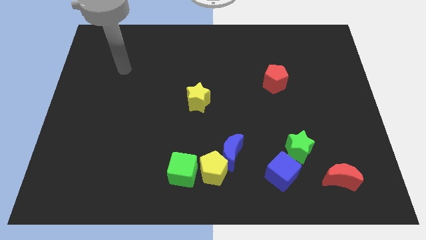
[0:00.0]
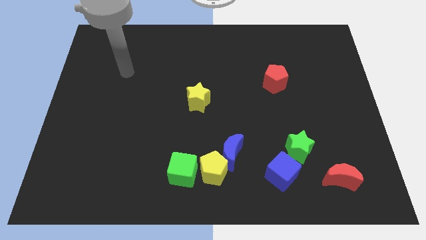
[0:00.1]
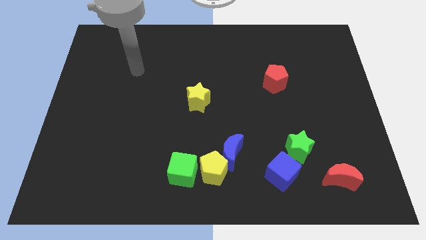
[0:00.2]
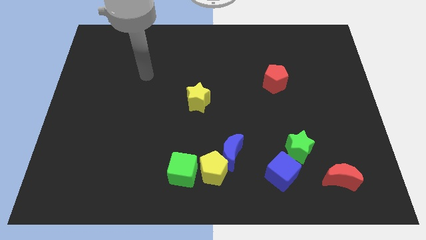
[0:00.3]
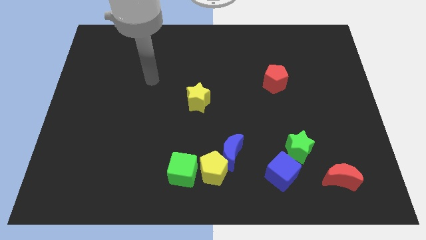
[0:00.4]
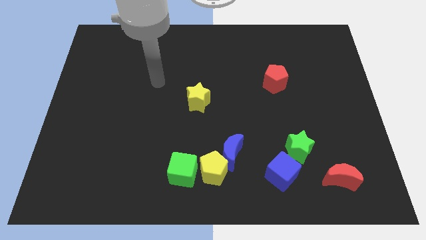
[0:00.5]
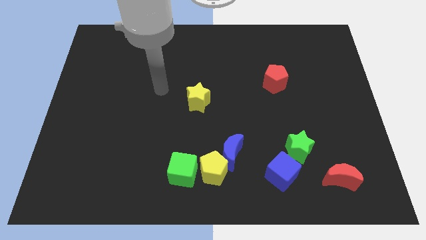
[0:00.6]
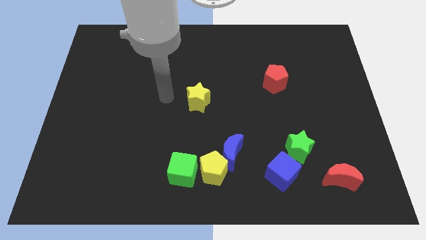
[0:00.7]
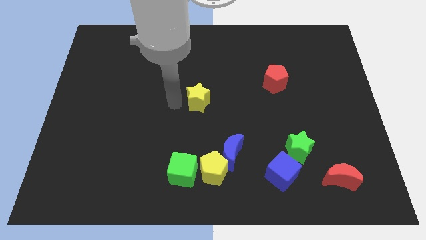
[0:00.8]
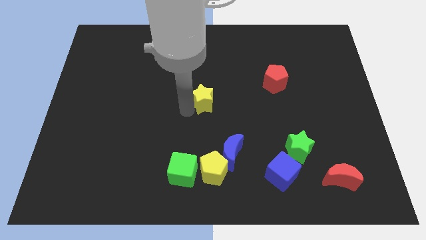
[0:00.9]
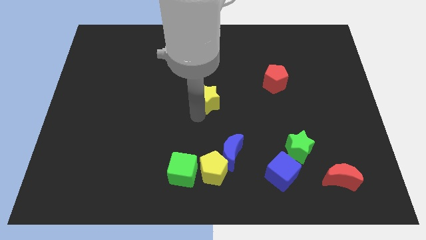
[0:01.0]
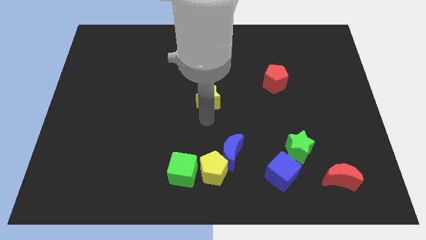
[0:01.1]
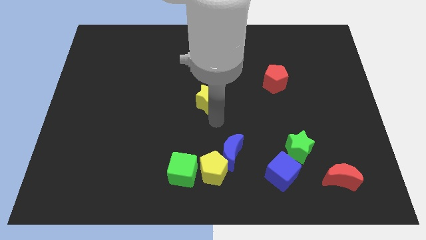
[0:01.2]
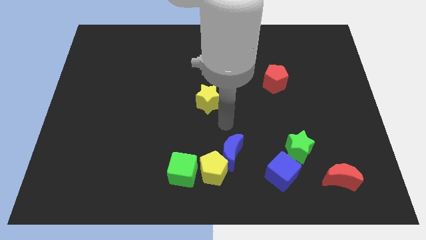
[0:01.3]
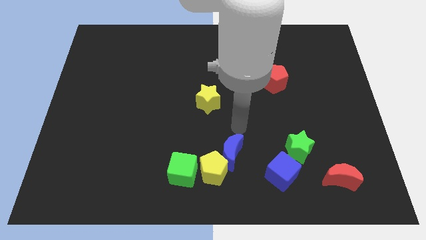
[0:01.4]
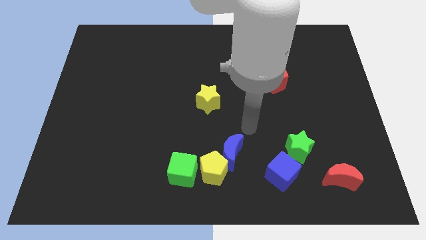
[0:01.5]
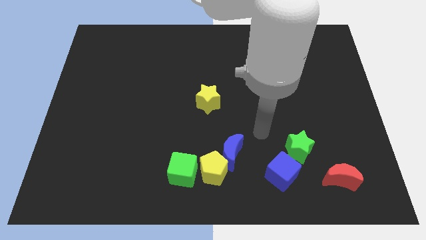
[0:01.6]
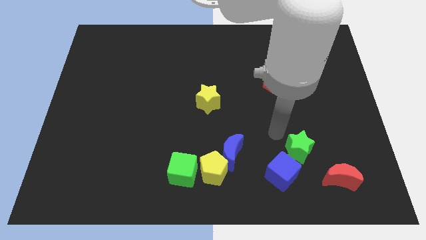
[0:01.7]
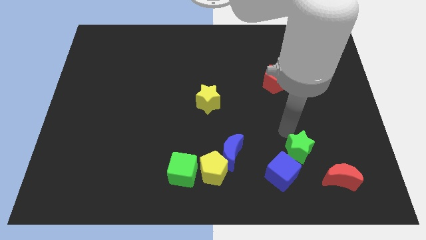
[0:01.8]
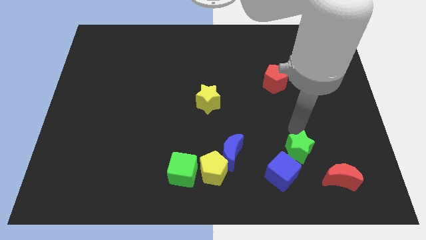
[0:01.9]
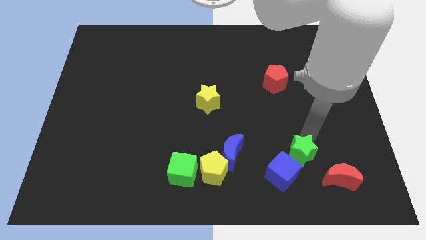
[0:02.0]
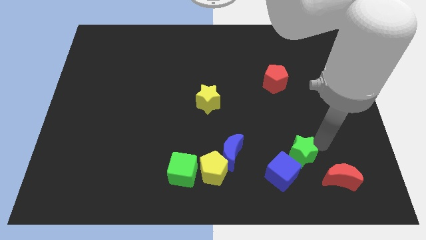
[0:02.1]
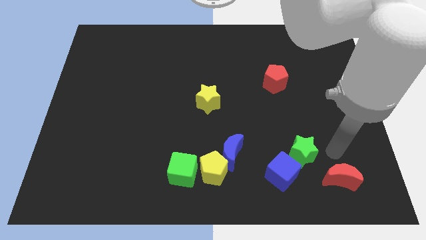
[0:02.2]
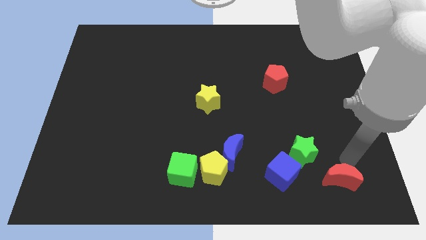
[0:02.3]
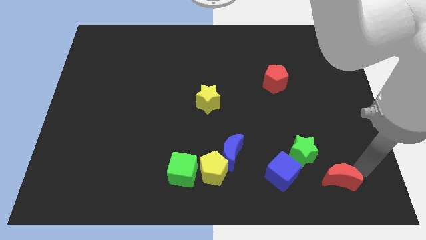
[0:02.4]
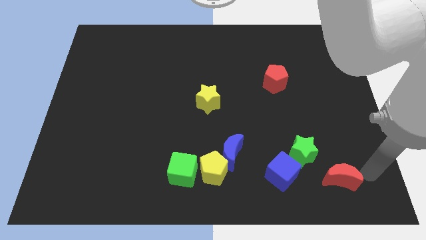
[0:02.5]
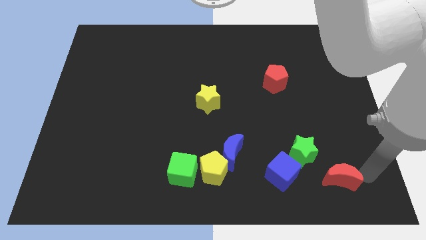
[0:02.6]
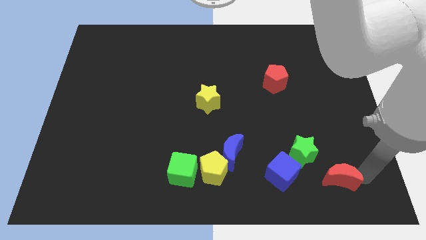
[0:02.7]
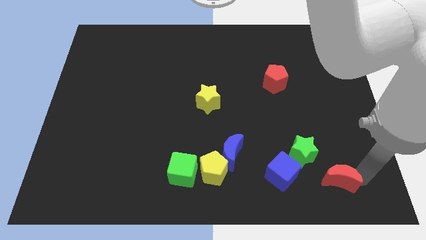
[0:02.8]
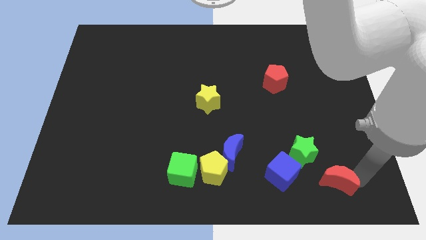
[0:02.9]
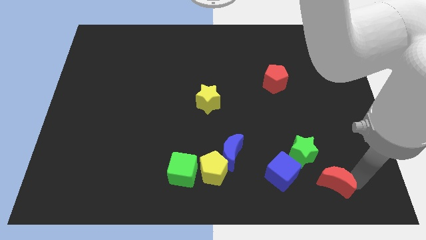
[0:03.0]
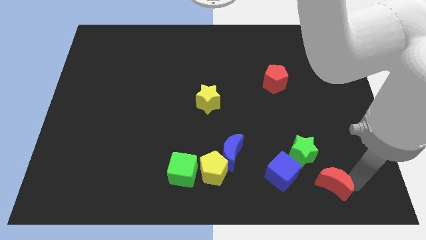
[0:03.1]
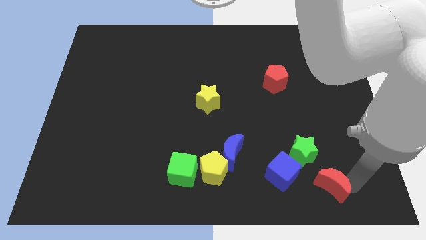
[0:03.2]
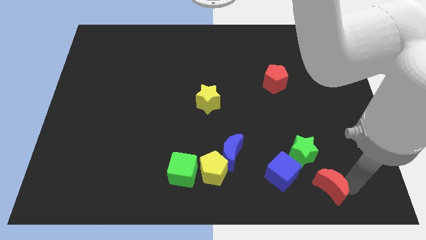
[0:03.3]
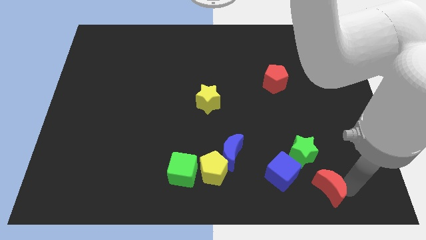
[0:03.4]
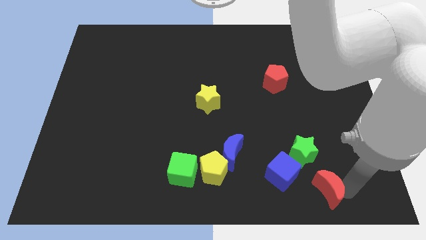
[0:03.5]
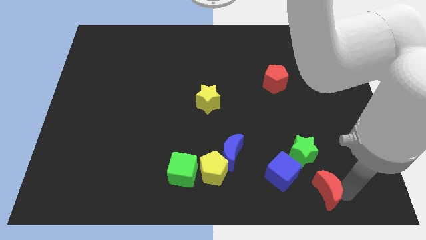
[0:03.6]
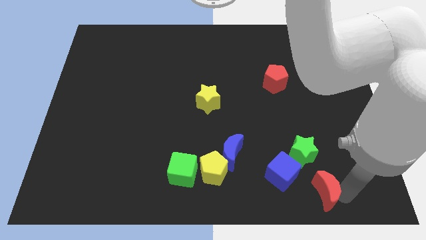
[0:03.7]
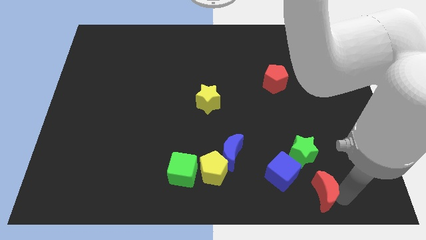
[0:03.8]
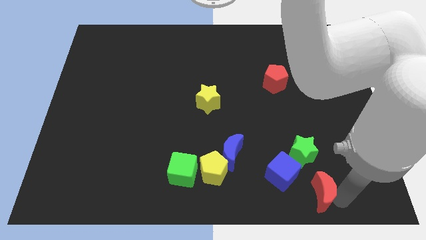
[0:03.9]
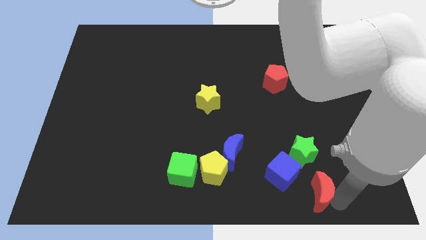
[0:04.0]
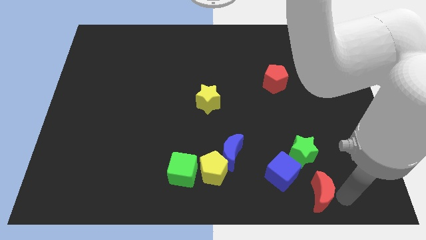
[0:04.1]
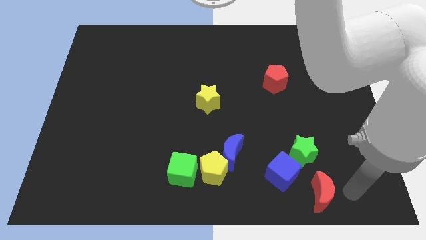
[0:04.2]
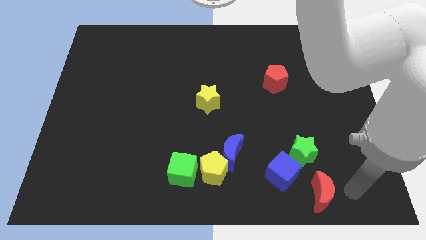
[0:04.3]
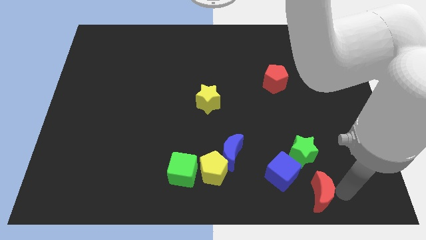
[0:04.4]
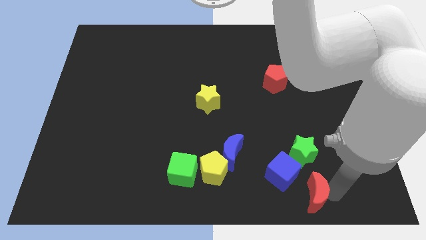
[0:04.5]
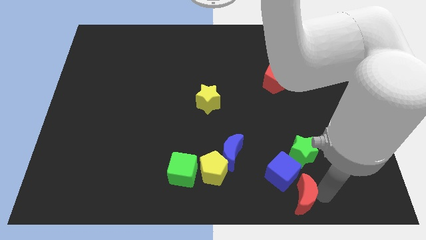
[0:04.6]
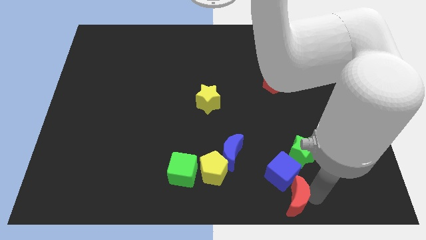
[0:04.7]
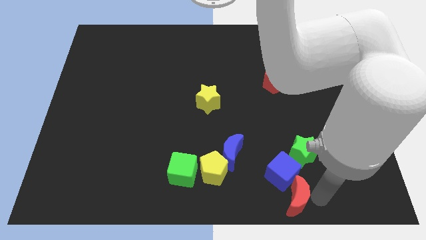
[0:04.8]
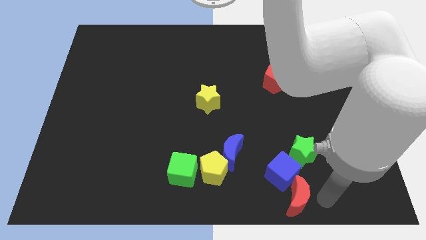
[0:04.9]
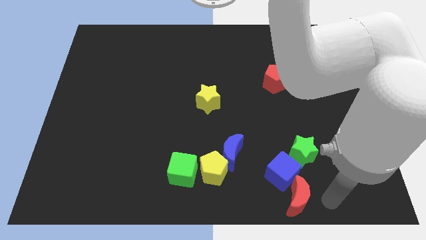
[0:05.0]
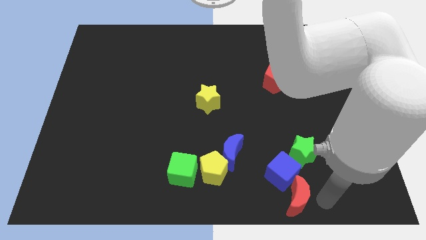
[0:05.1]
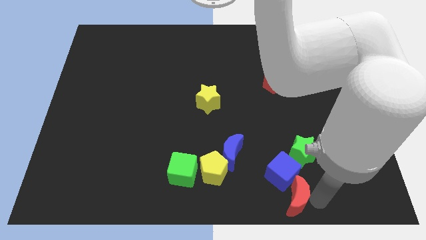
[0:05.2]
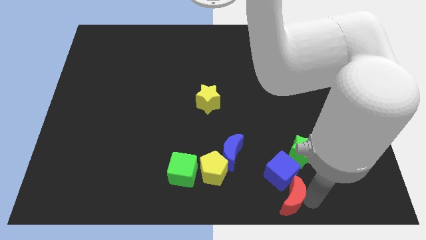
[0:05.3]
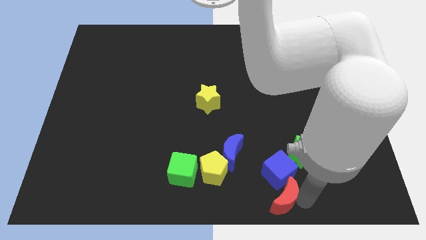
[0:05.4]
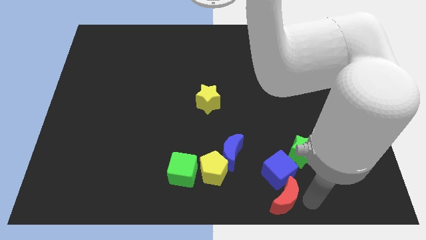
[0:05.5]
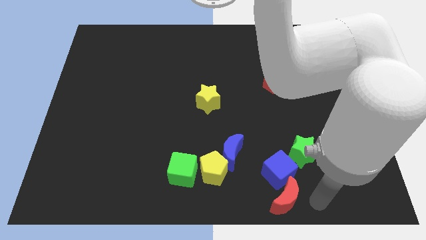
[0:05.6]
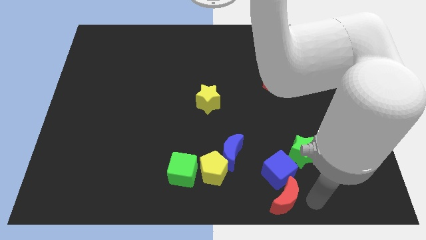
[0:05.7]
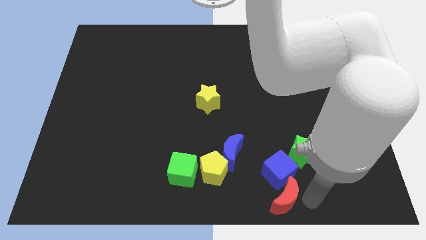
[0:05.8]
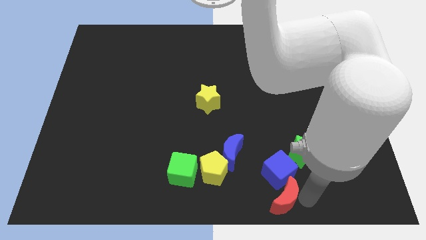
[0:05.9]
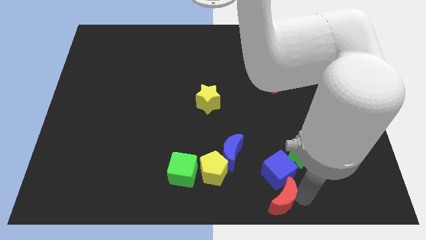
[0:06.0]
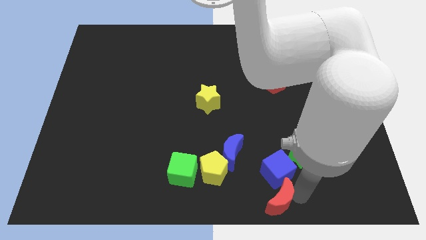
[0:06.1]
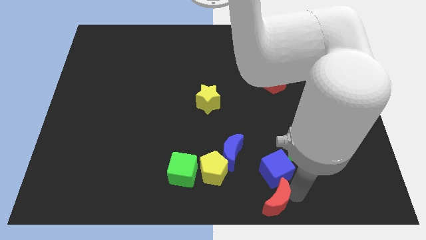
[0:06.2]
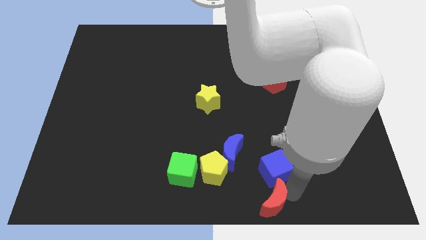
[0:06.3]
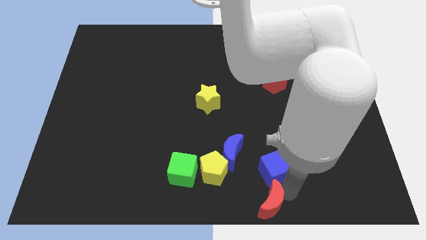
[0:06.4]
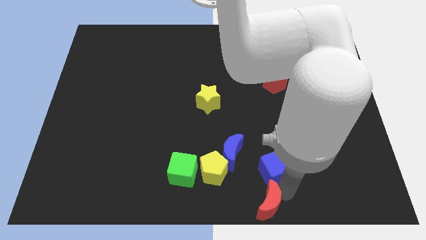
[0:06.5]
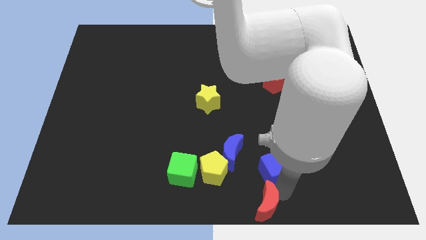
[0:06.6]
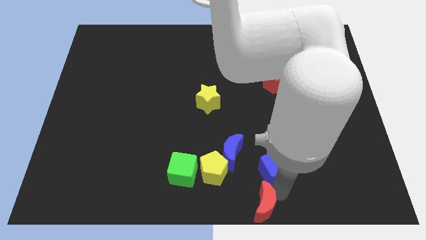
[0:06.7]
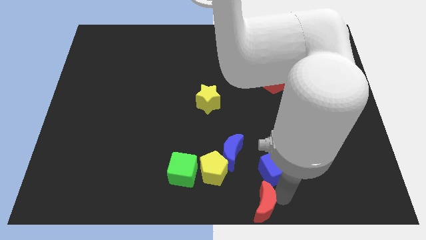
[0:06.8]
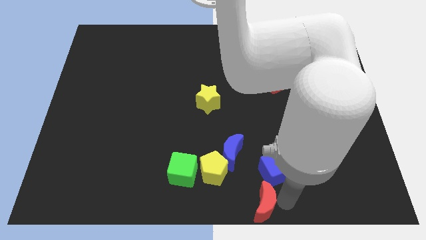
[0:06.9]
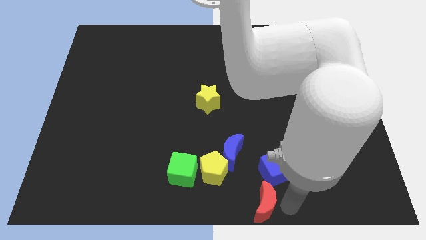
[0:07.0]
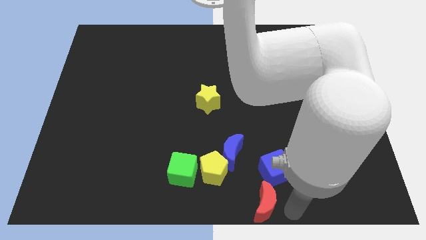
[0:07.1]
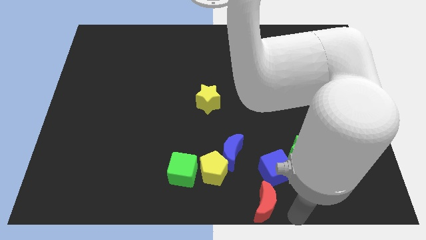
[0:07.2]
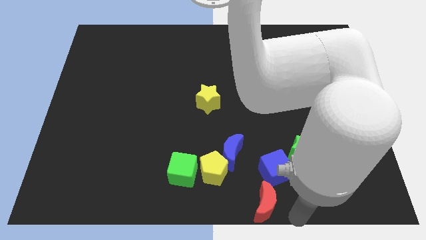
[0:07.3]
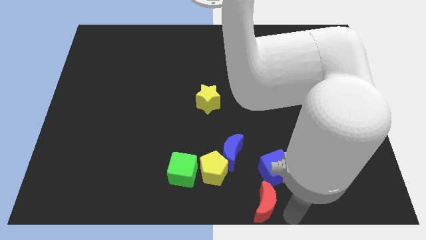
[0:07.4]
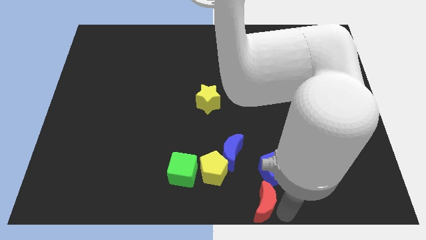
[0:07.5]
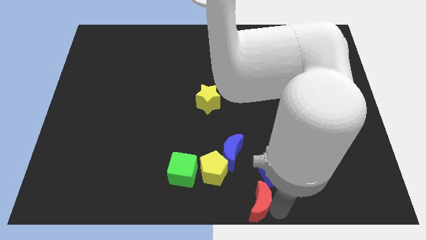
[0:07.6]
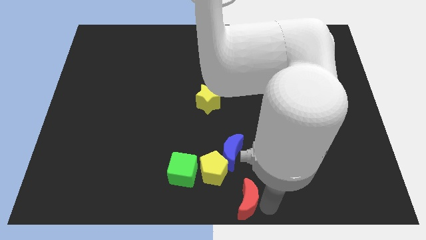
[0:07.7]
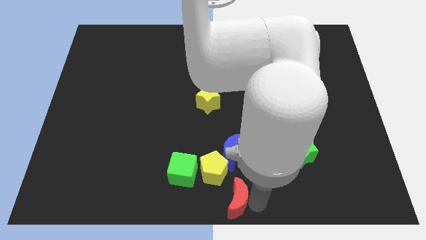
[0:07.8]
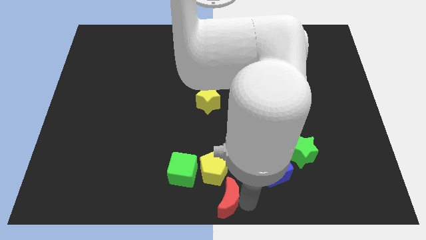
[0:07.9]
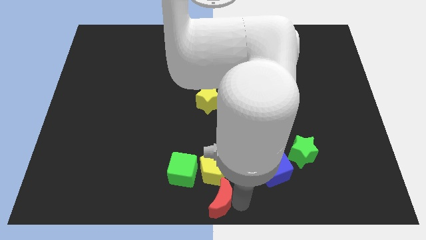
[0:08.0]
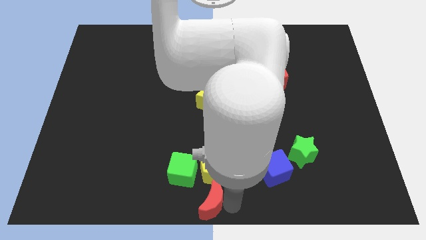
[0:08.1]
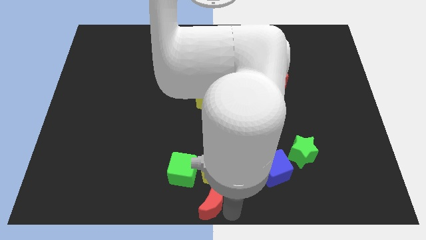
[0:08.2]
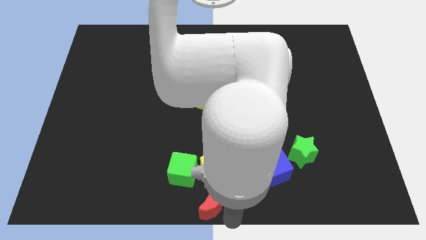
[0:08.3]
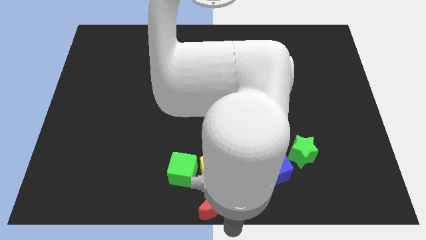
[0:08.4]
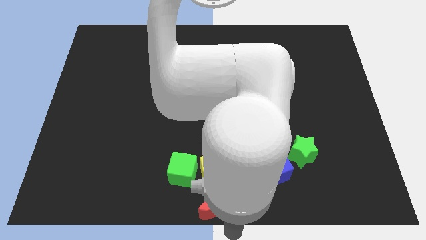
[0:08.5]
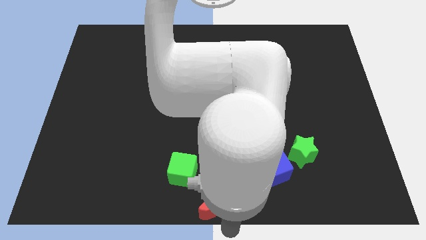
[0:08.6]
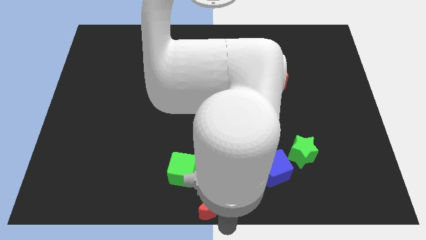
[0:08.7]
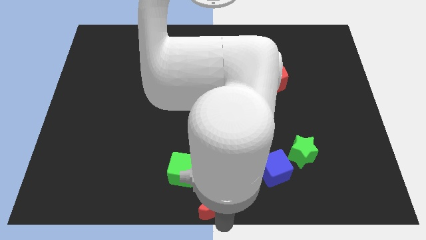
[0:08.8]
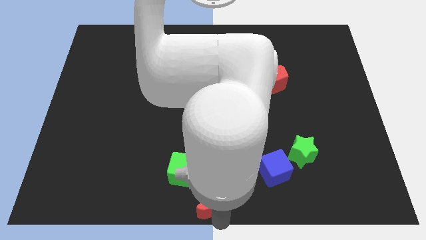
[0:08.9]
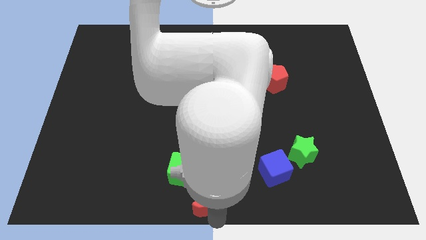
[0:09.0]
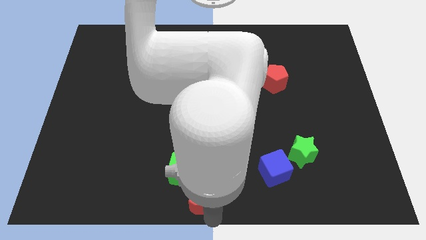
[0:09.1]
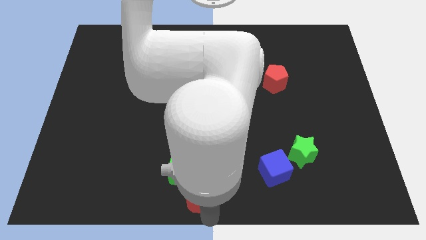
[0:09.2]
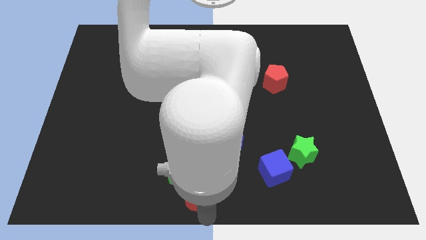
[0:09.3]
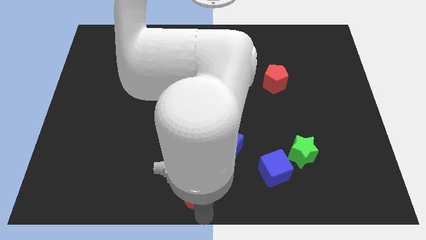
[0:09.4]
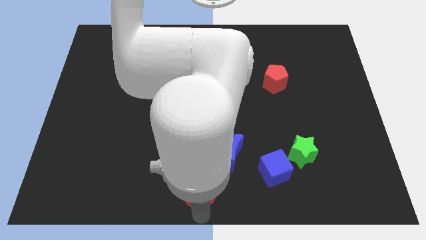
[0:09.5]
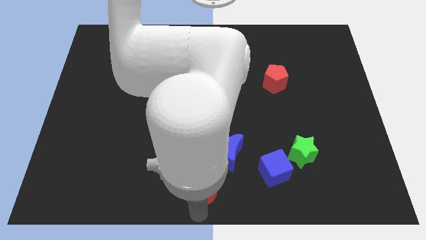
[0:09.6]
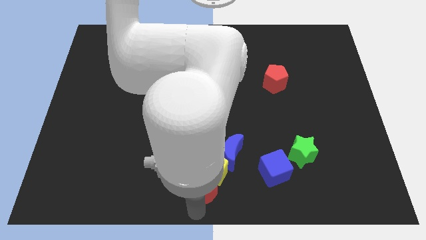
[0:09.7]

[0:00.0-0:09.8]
push the red moon close to the green cube
